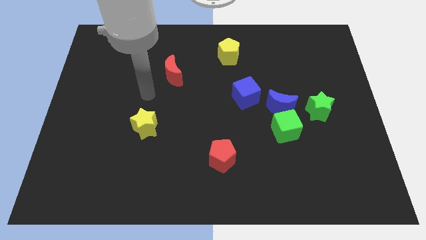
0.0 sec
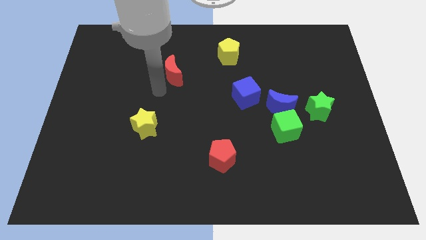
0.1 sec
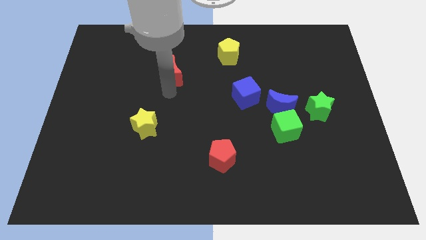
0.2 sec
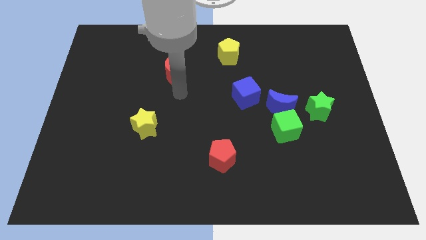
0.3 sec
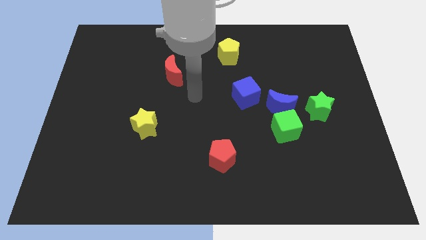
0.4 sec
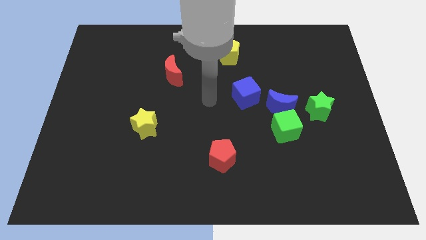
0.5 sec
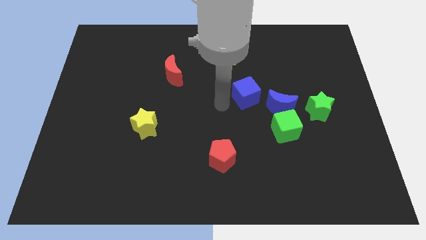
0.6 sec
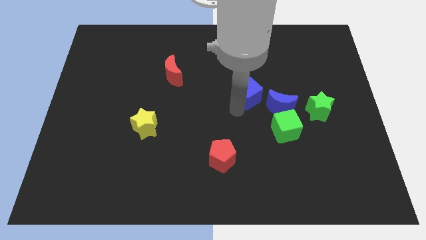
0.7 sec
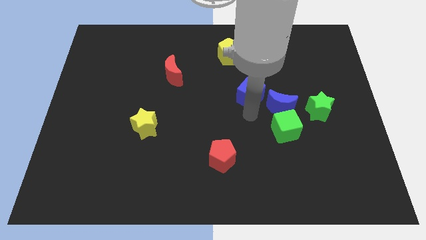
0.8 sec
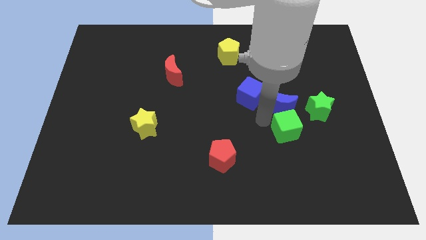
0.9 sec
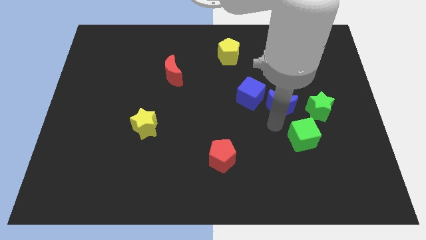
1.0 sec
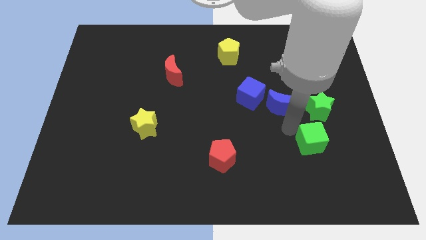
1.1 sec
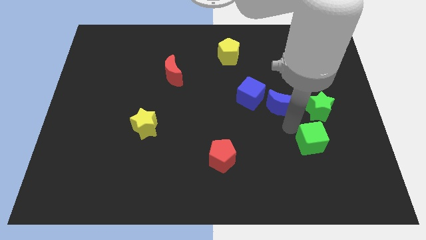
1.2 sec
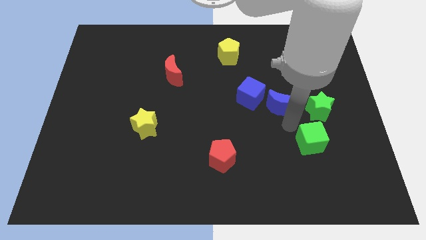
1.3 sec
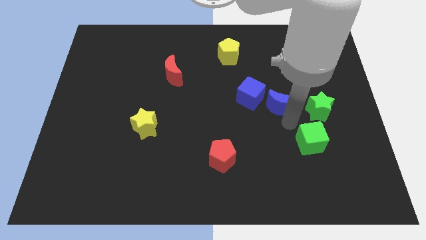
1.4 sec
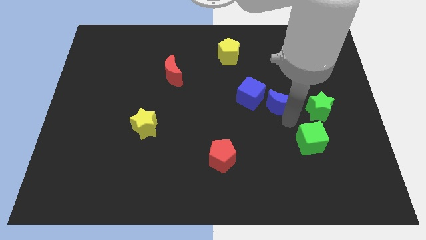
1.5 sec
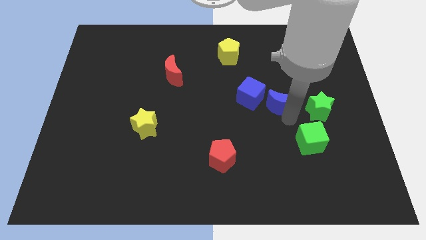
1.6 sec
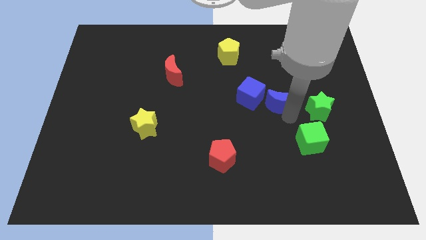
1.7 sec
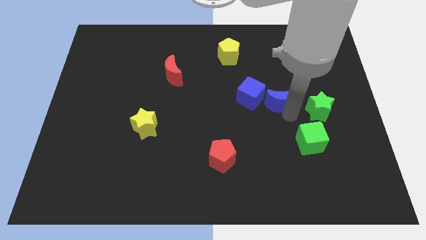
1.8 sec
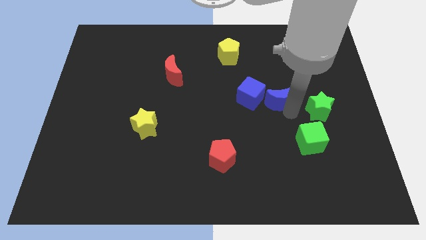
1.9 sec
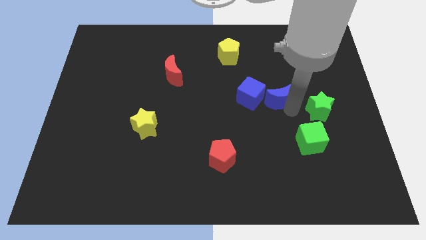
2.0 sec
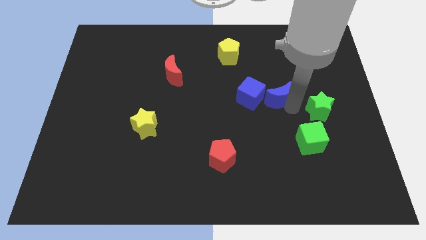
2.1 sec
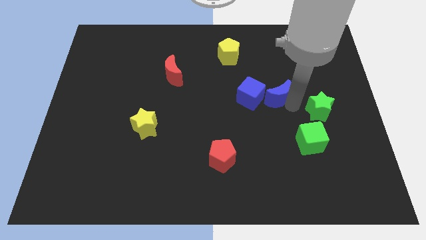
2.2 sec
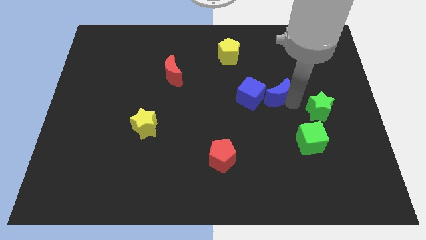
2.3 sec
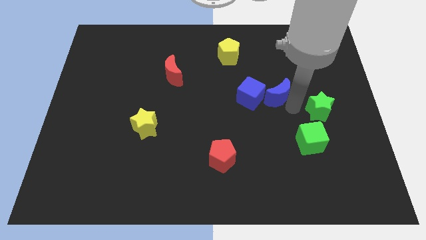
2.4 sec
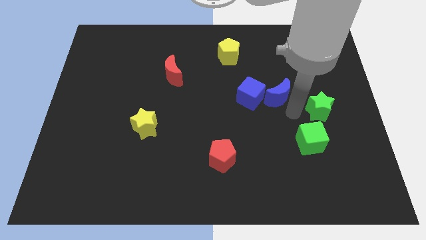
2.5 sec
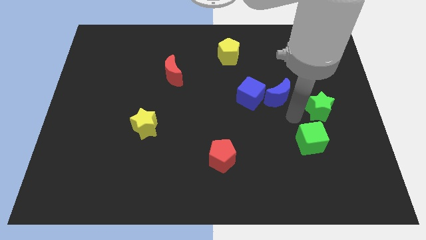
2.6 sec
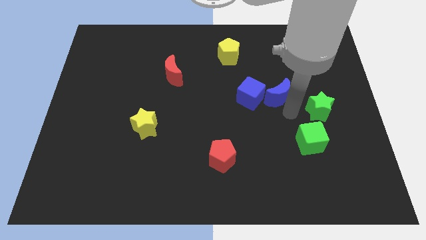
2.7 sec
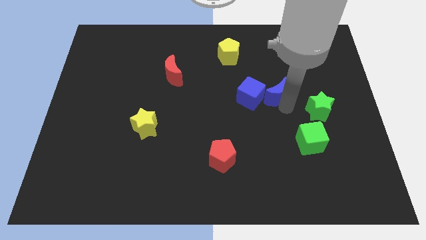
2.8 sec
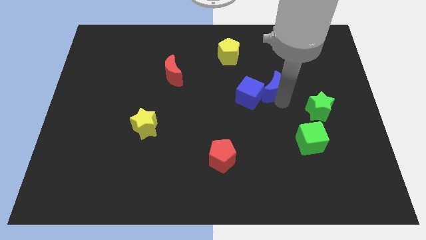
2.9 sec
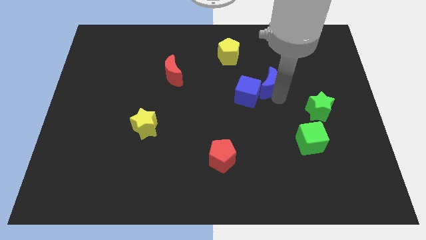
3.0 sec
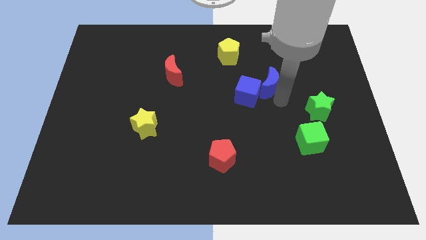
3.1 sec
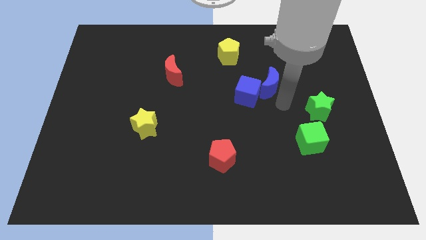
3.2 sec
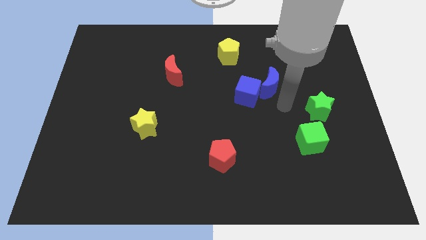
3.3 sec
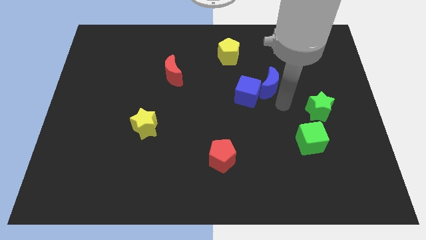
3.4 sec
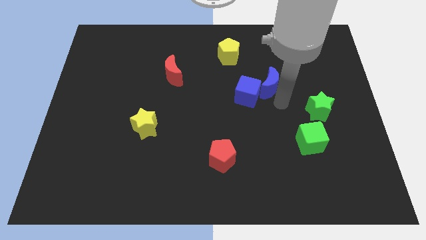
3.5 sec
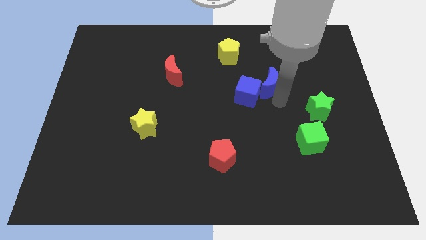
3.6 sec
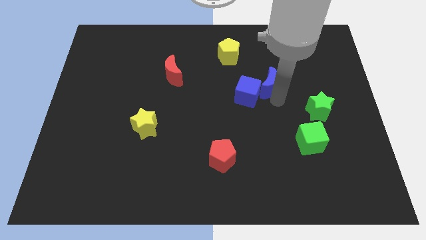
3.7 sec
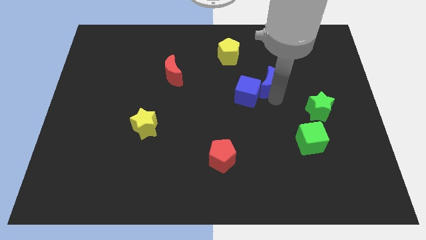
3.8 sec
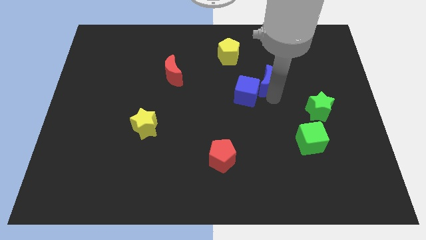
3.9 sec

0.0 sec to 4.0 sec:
pull the blue moon apart from the green cube, blue cube, and green star

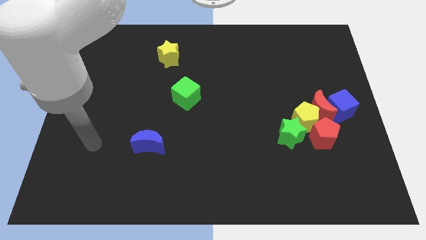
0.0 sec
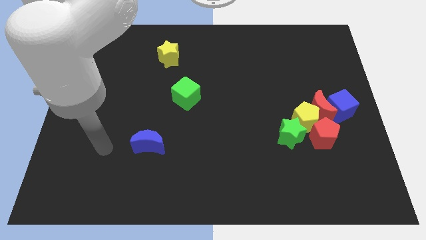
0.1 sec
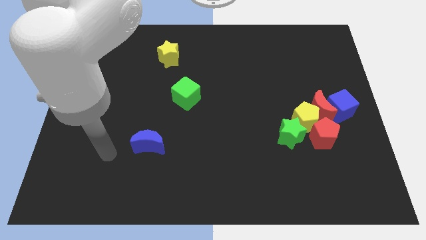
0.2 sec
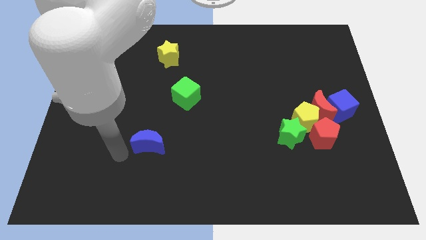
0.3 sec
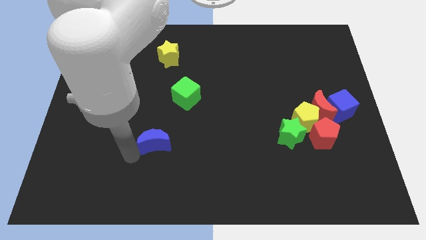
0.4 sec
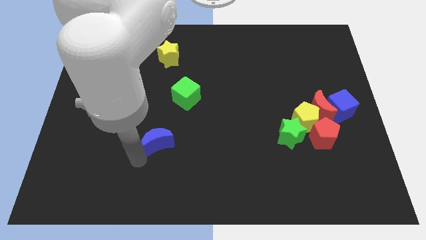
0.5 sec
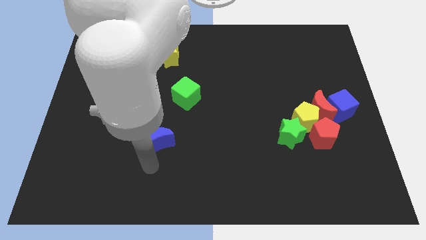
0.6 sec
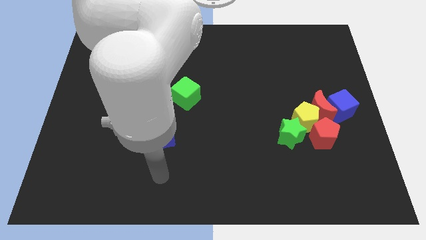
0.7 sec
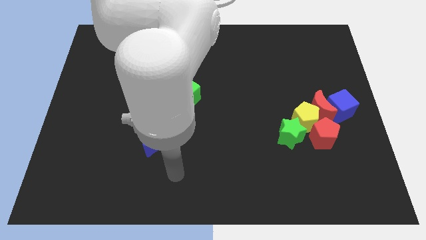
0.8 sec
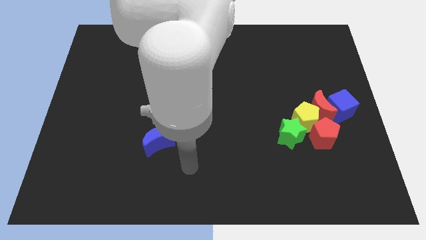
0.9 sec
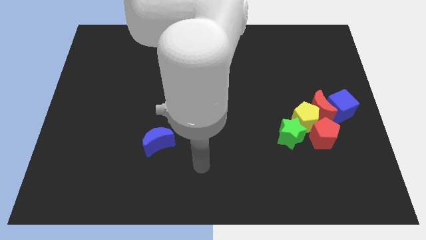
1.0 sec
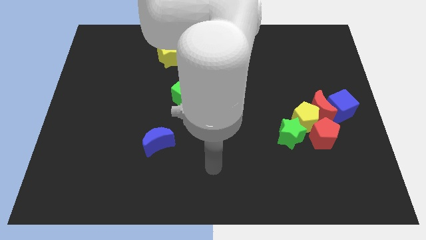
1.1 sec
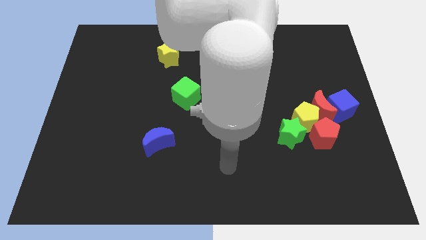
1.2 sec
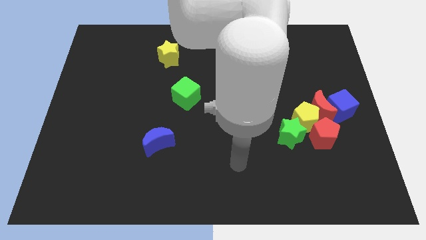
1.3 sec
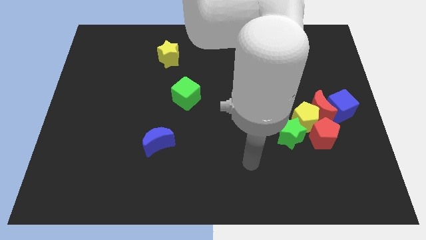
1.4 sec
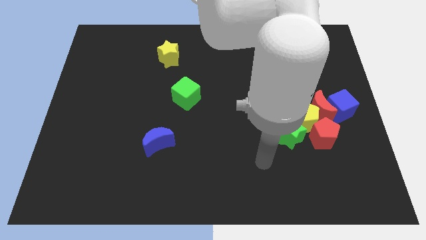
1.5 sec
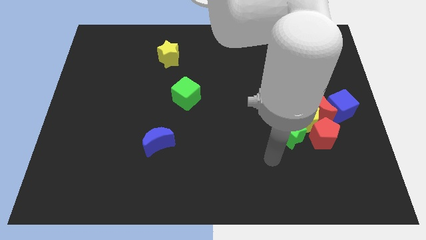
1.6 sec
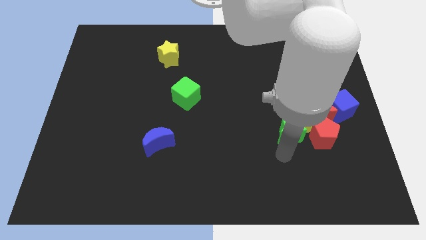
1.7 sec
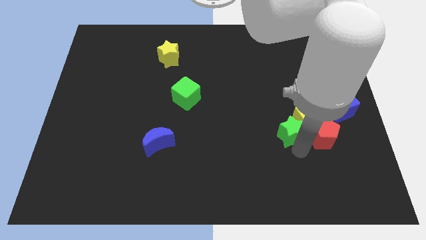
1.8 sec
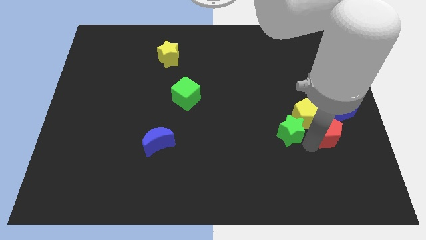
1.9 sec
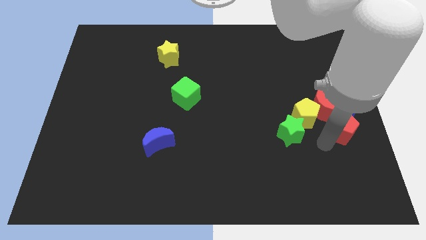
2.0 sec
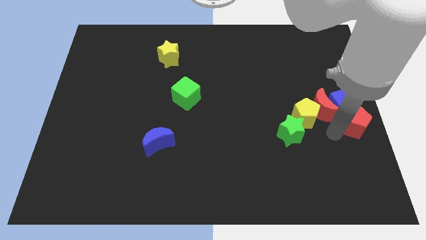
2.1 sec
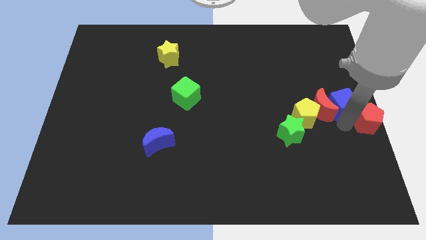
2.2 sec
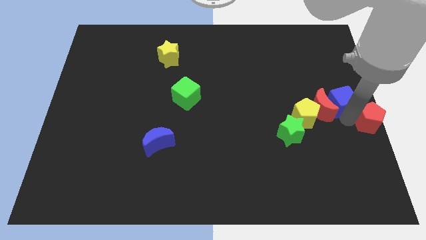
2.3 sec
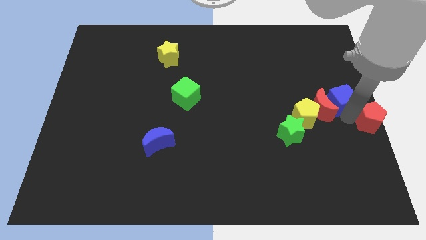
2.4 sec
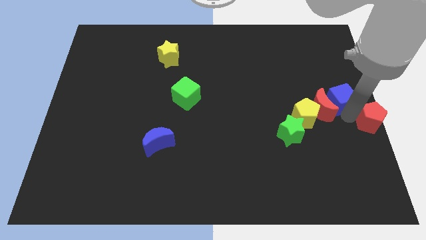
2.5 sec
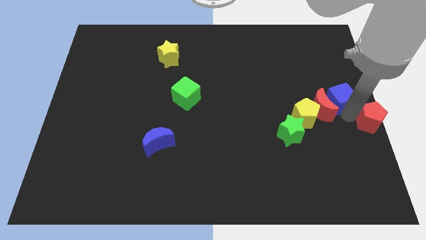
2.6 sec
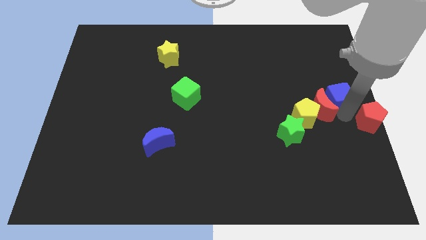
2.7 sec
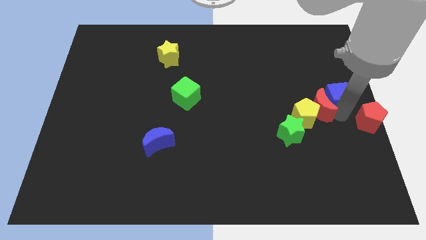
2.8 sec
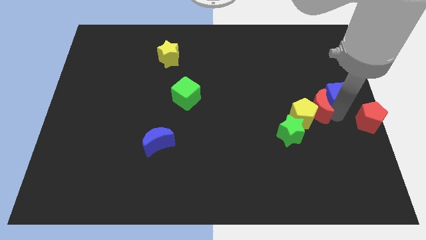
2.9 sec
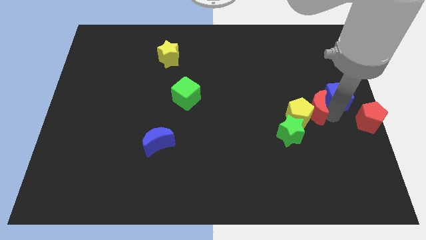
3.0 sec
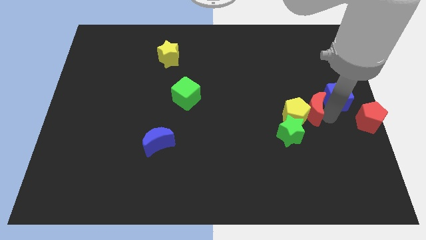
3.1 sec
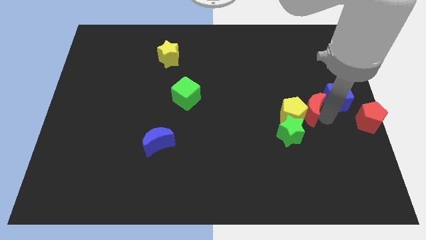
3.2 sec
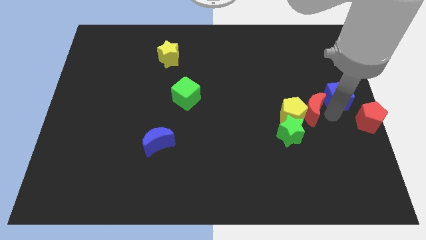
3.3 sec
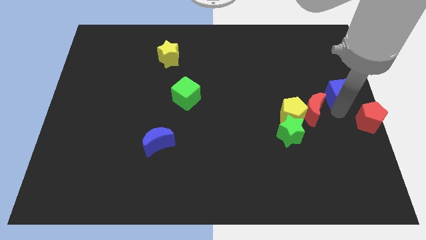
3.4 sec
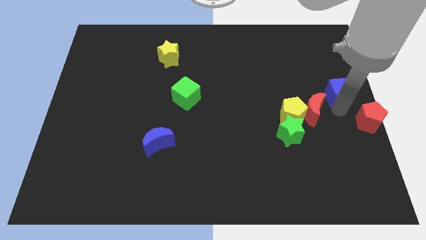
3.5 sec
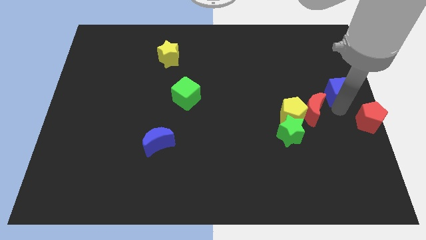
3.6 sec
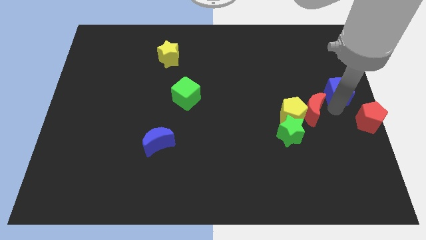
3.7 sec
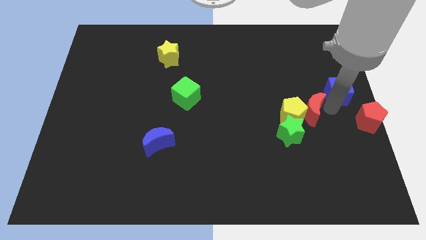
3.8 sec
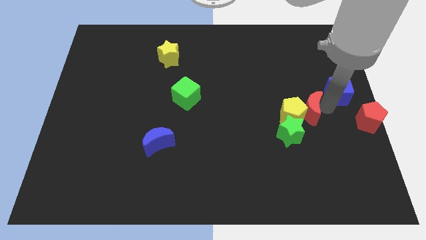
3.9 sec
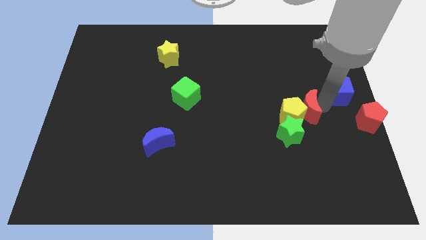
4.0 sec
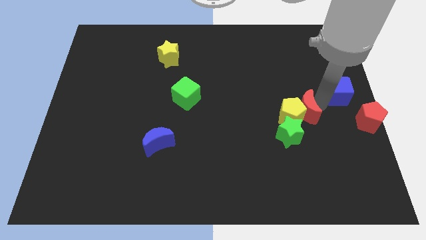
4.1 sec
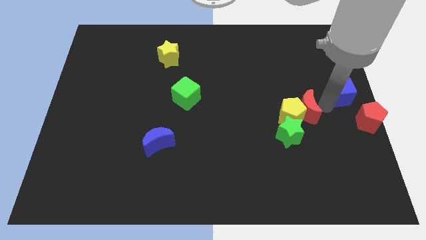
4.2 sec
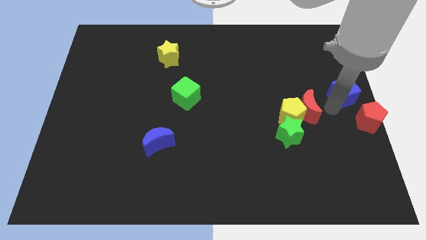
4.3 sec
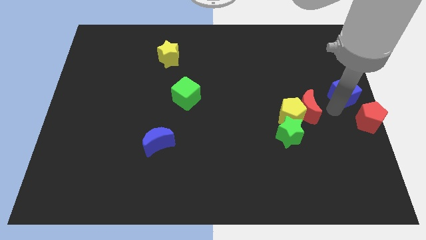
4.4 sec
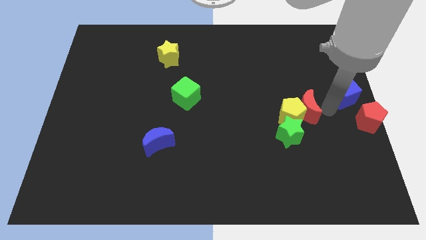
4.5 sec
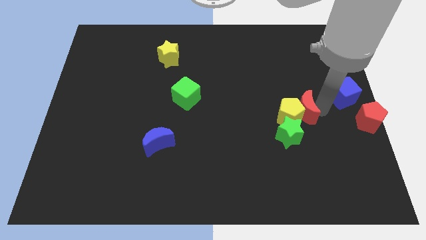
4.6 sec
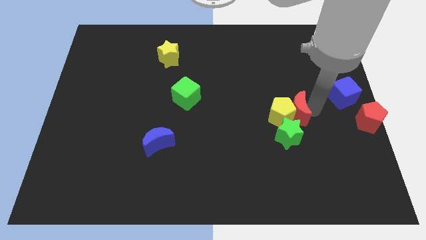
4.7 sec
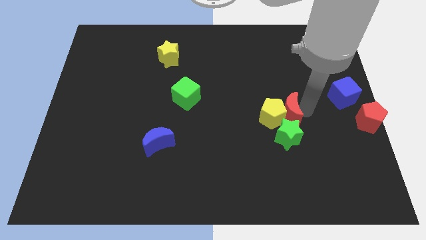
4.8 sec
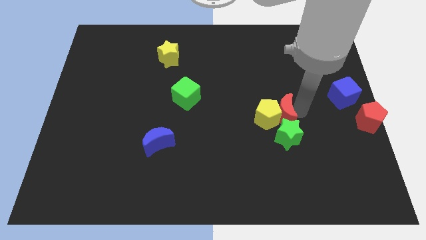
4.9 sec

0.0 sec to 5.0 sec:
move the red moon away from the blue cube, yellow pentagon, and red pentagon

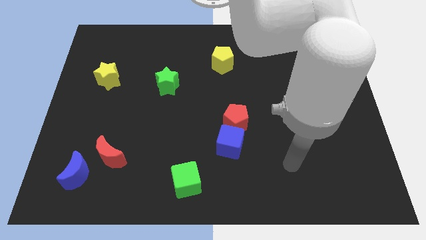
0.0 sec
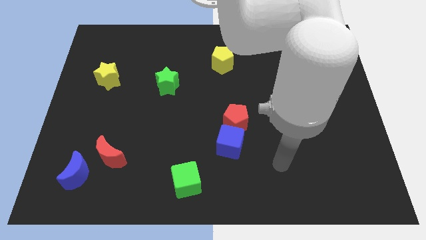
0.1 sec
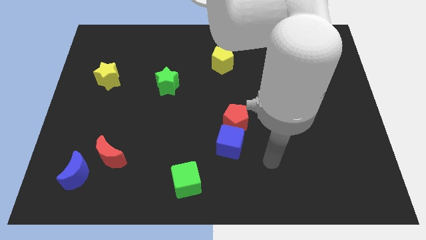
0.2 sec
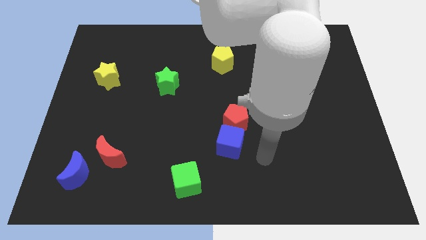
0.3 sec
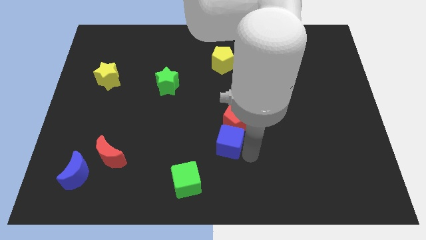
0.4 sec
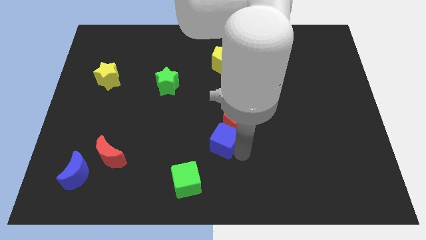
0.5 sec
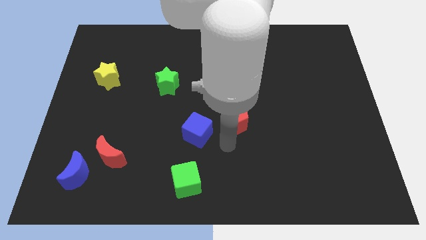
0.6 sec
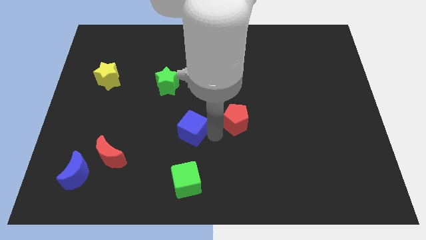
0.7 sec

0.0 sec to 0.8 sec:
separate the red pentagon from the blue cube
